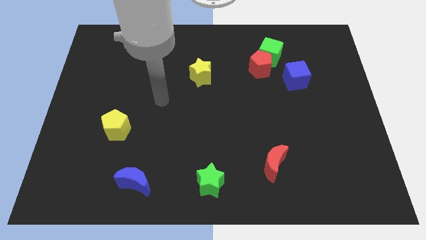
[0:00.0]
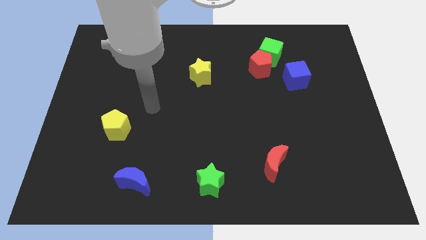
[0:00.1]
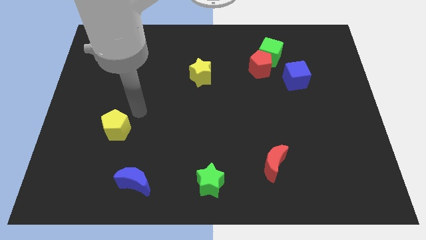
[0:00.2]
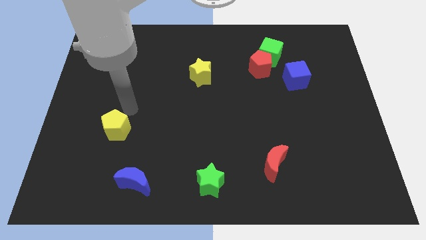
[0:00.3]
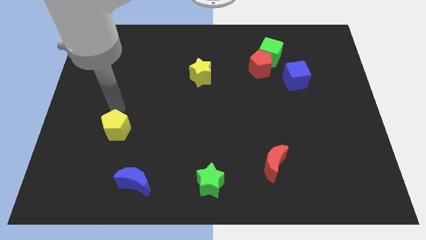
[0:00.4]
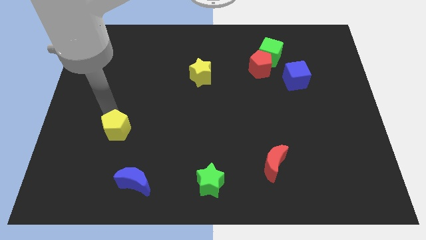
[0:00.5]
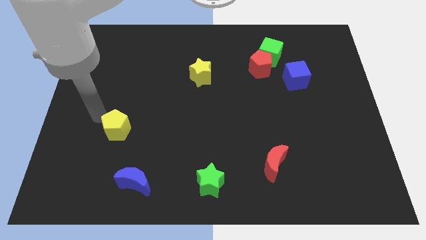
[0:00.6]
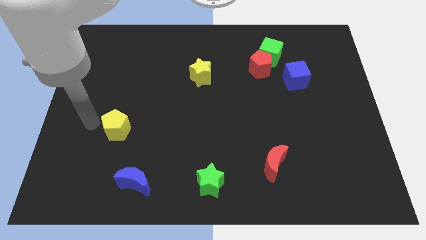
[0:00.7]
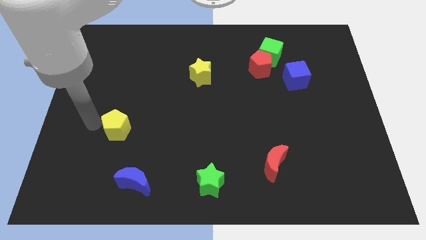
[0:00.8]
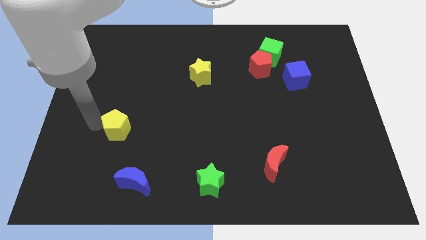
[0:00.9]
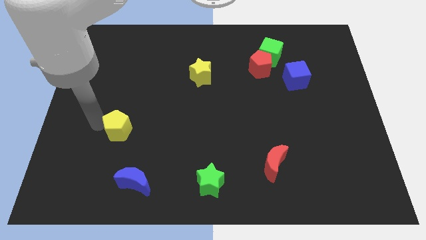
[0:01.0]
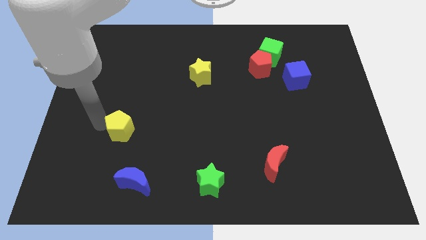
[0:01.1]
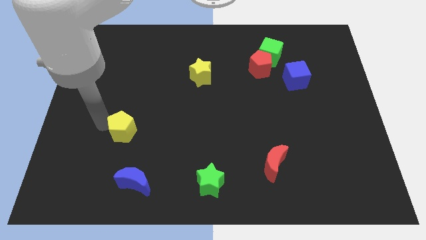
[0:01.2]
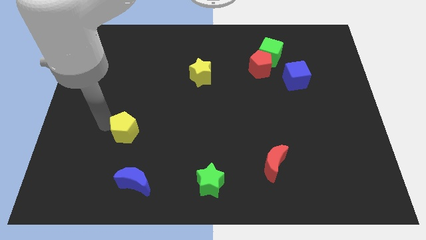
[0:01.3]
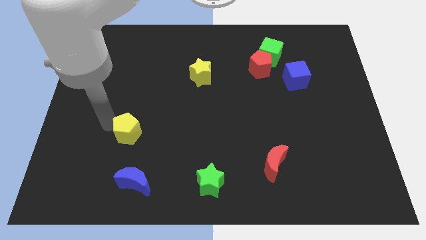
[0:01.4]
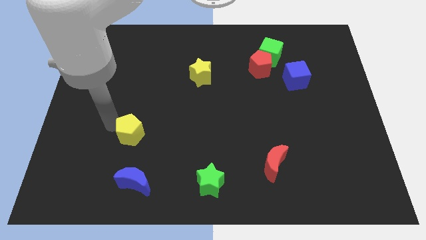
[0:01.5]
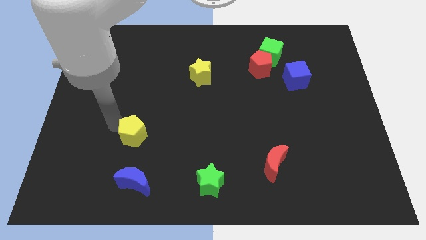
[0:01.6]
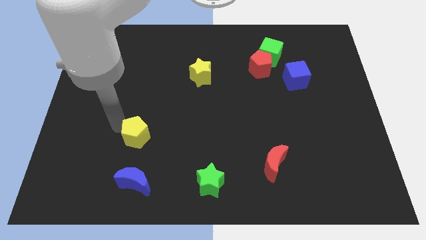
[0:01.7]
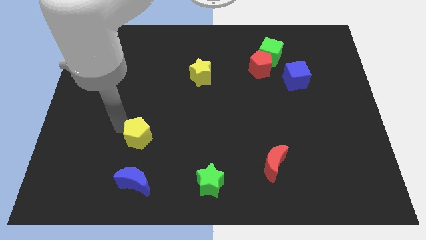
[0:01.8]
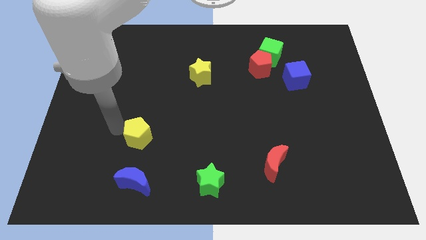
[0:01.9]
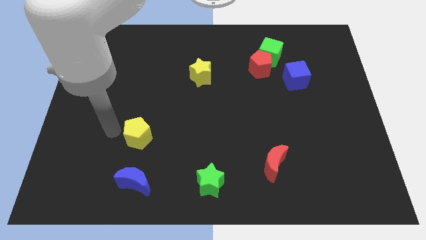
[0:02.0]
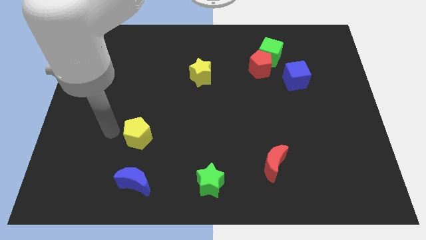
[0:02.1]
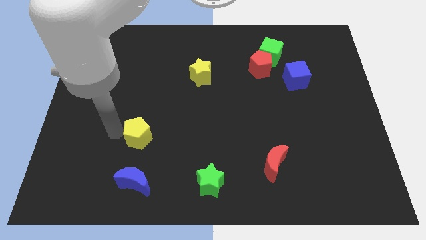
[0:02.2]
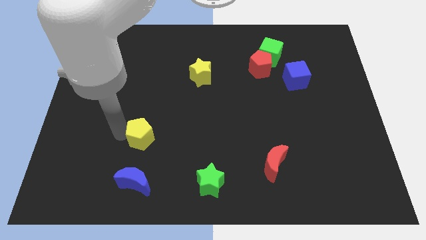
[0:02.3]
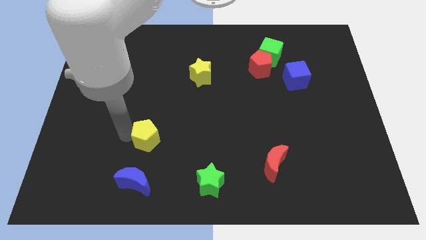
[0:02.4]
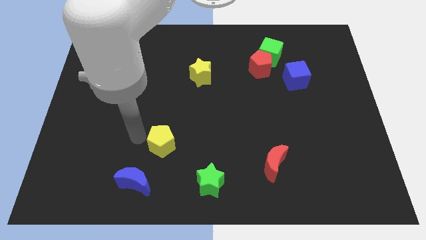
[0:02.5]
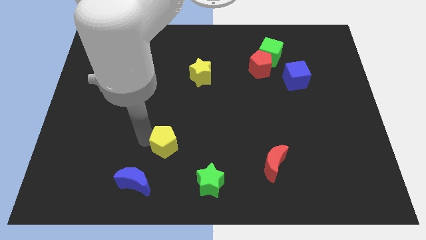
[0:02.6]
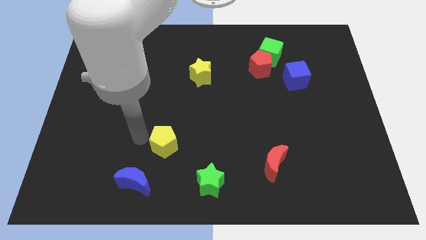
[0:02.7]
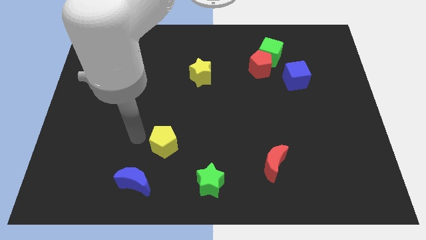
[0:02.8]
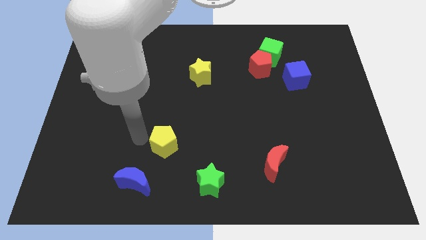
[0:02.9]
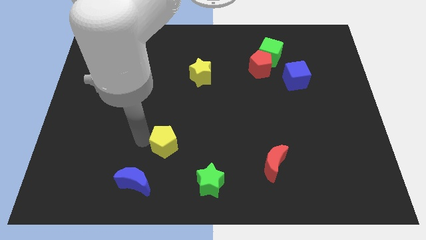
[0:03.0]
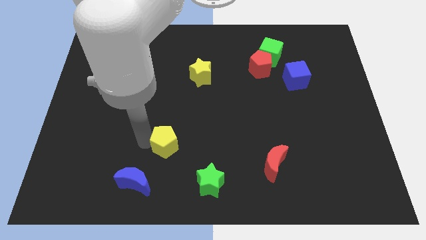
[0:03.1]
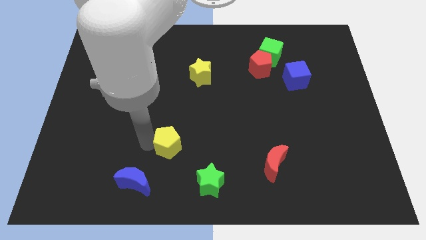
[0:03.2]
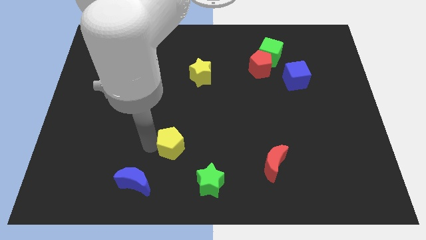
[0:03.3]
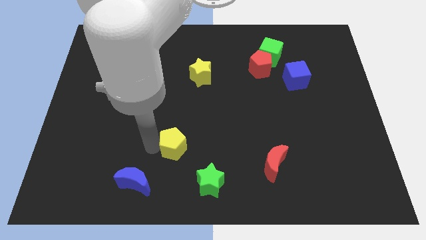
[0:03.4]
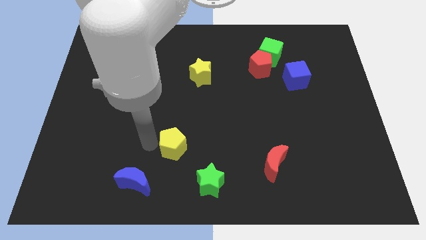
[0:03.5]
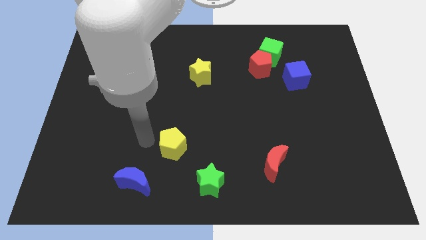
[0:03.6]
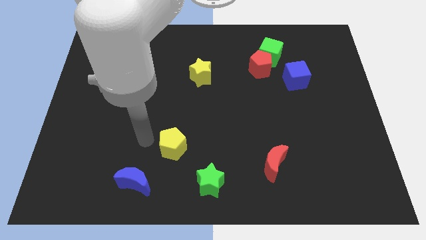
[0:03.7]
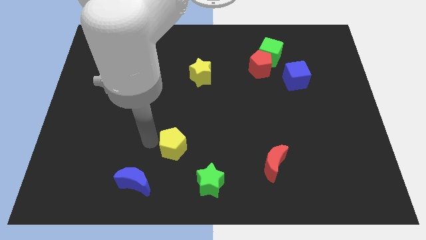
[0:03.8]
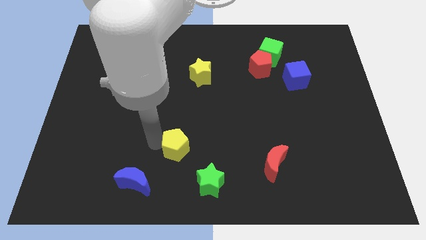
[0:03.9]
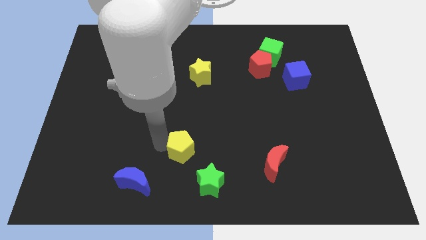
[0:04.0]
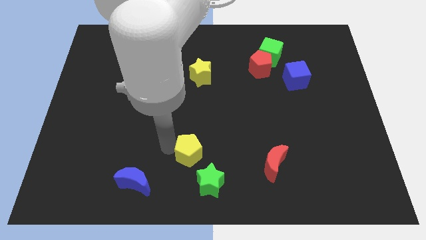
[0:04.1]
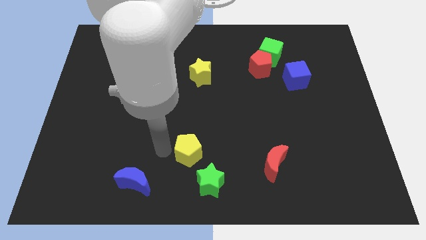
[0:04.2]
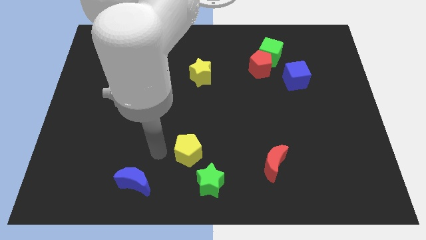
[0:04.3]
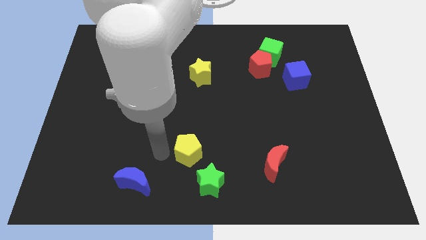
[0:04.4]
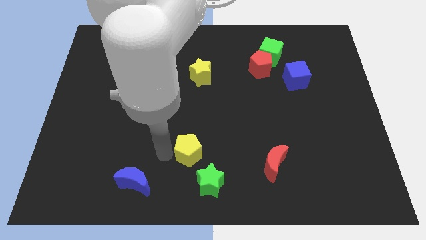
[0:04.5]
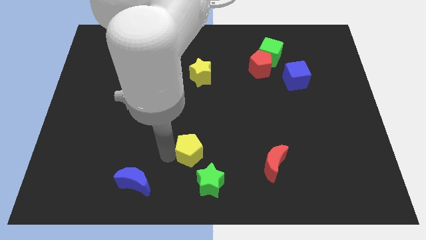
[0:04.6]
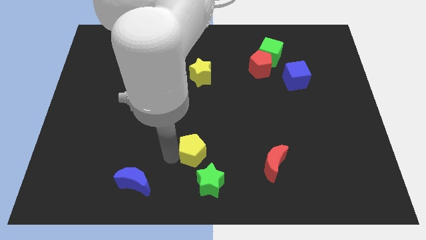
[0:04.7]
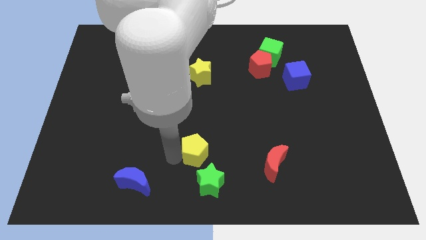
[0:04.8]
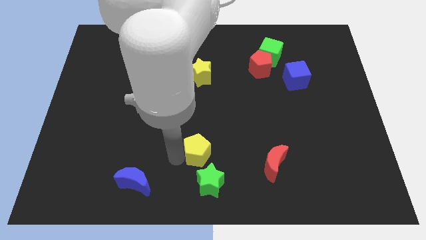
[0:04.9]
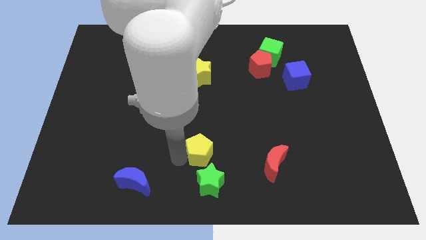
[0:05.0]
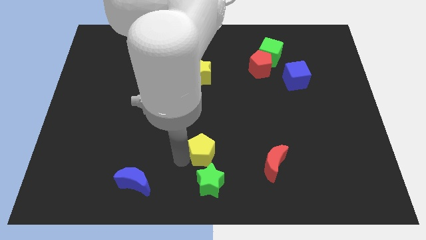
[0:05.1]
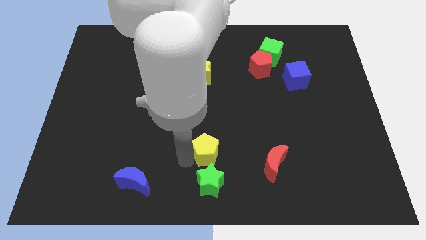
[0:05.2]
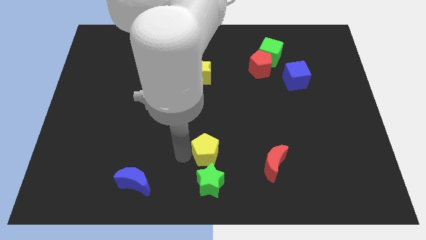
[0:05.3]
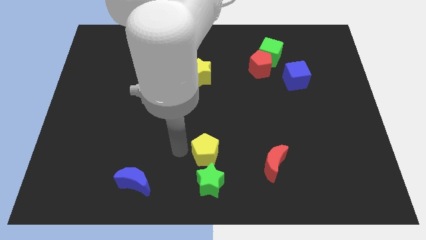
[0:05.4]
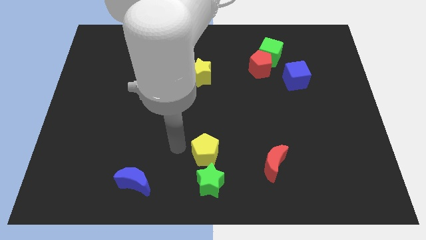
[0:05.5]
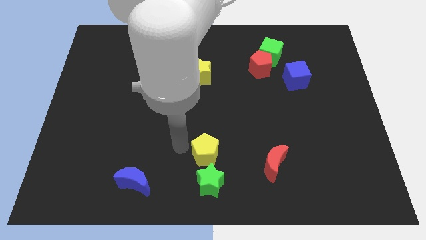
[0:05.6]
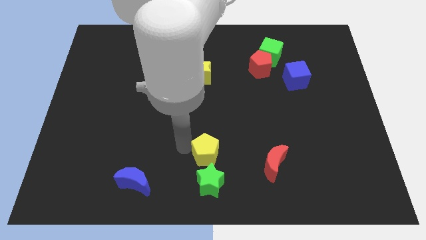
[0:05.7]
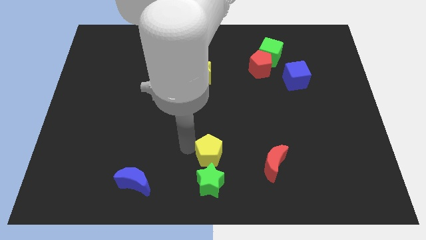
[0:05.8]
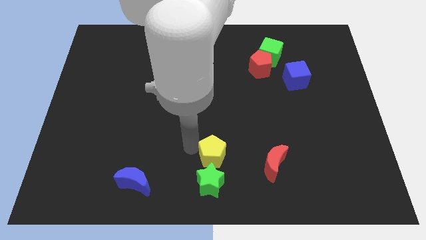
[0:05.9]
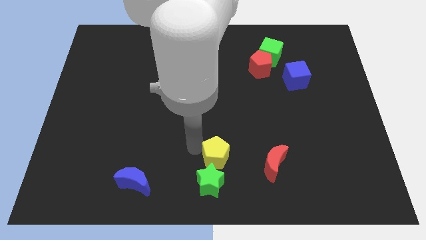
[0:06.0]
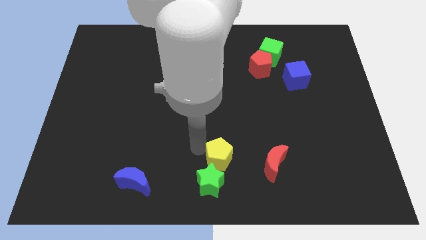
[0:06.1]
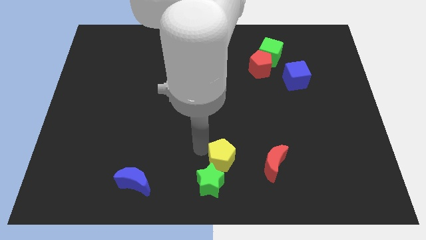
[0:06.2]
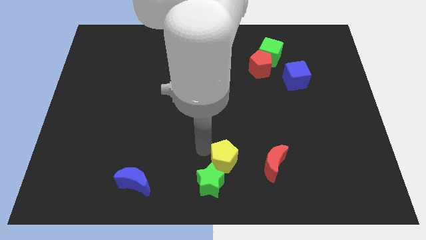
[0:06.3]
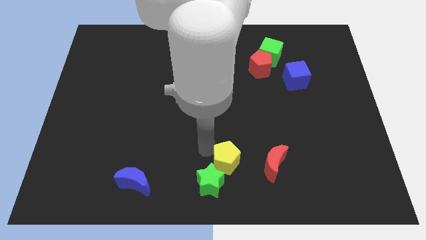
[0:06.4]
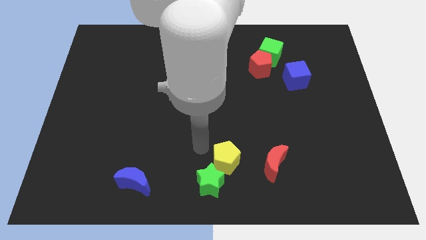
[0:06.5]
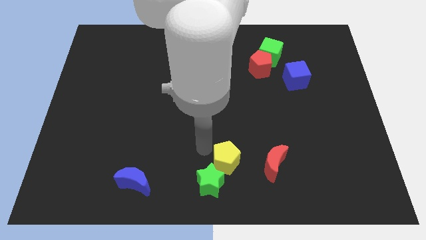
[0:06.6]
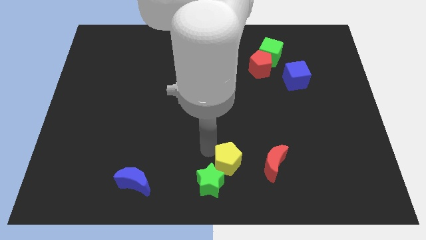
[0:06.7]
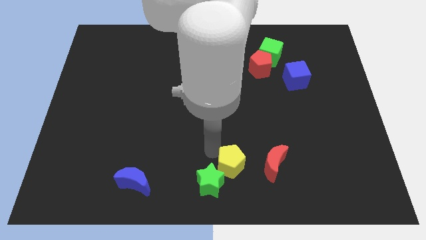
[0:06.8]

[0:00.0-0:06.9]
move the yellow pentagon just right of the green star

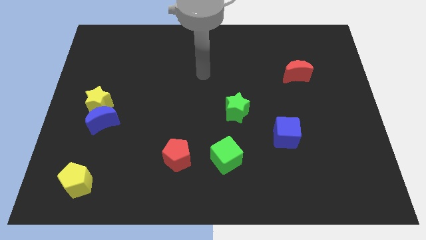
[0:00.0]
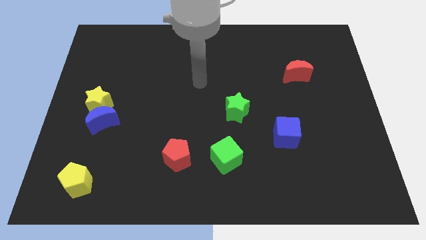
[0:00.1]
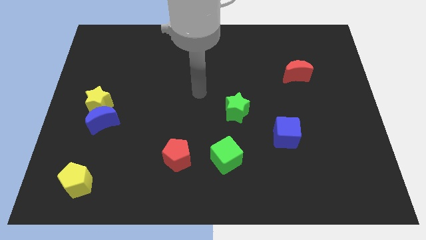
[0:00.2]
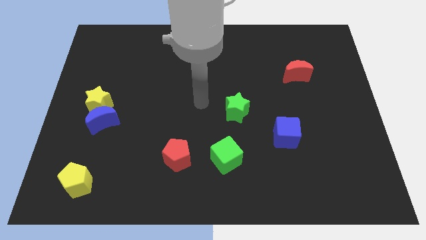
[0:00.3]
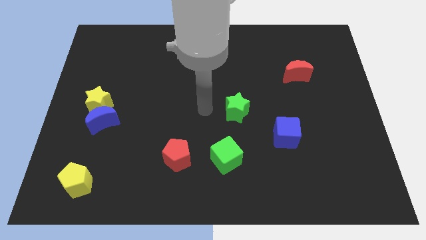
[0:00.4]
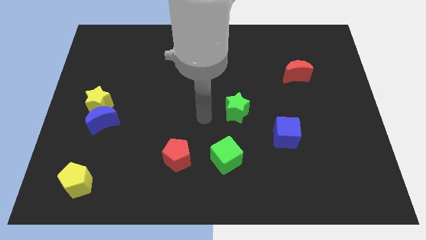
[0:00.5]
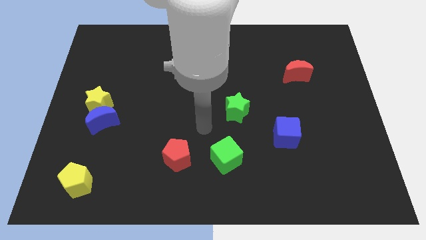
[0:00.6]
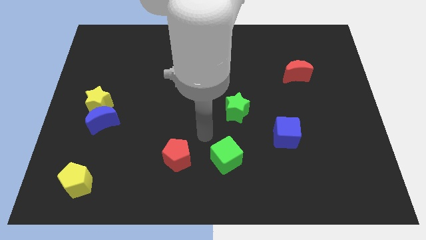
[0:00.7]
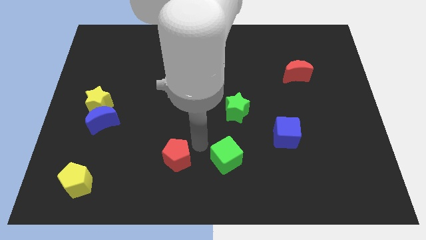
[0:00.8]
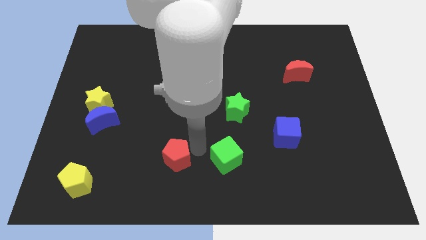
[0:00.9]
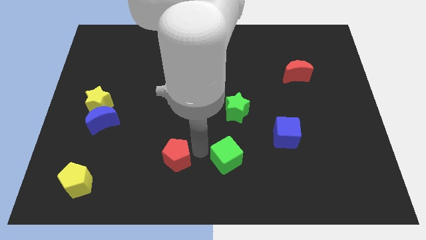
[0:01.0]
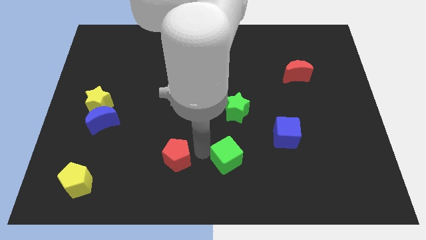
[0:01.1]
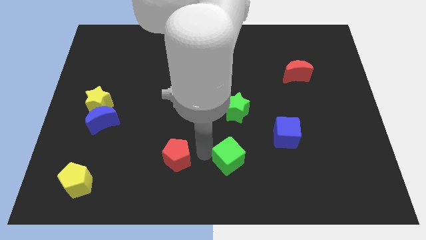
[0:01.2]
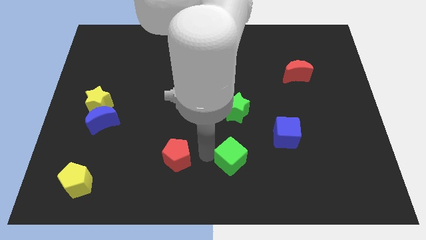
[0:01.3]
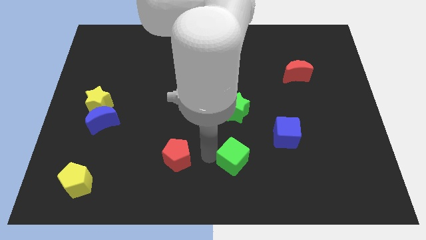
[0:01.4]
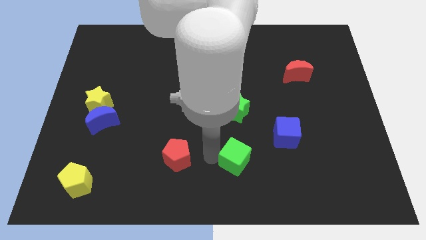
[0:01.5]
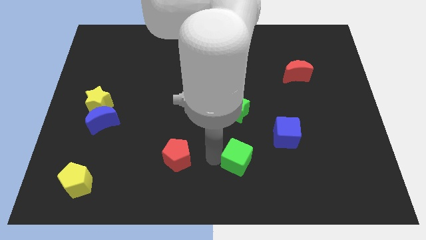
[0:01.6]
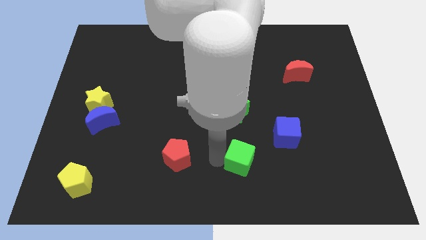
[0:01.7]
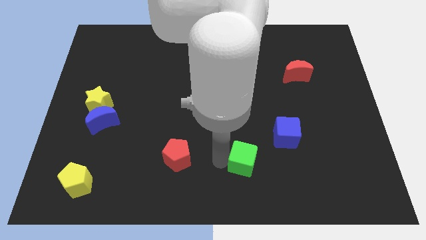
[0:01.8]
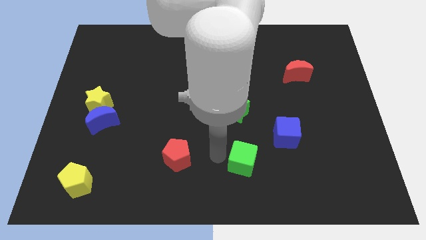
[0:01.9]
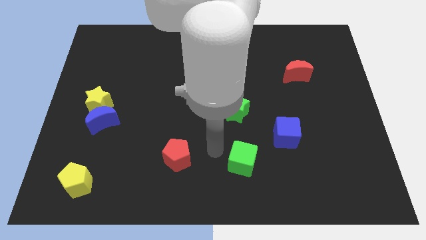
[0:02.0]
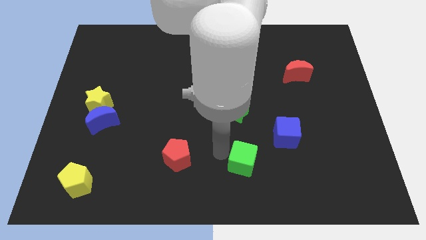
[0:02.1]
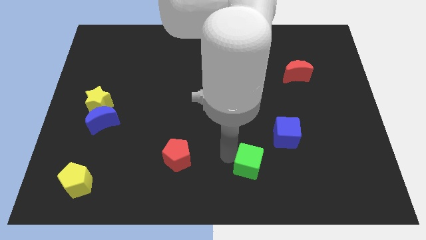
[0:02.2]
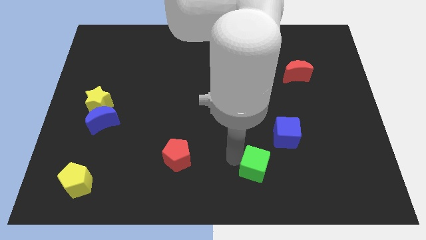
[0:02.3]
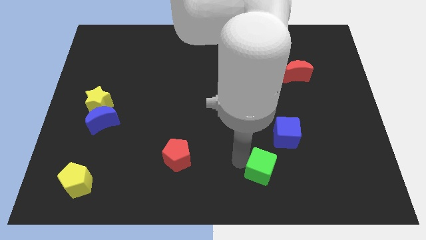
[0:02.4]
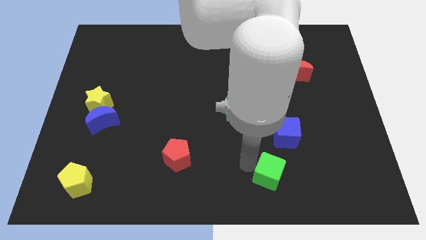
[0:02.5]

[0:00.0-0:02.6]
push the green cube below the blue cube
